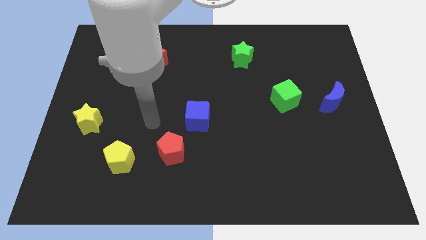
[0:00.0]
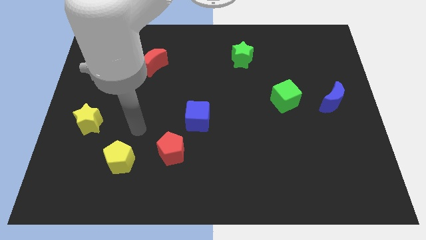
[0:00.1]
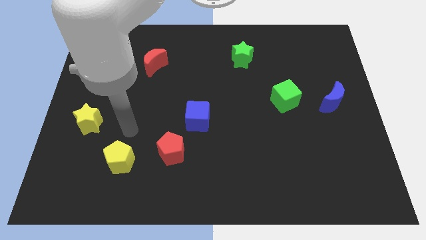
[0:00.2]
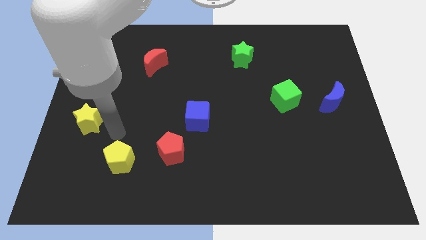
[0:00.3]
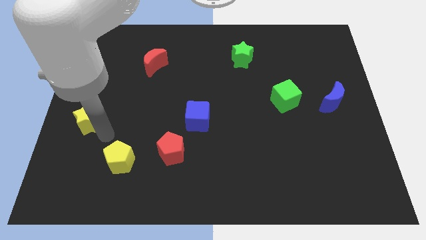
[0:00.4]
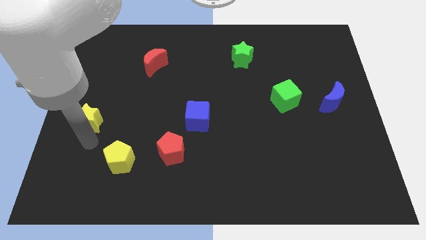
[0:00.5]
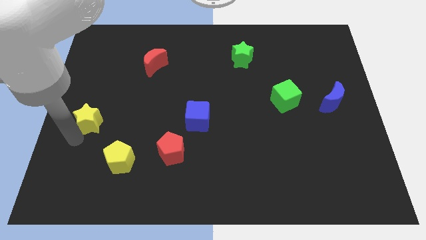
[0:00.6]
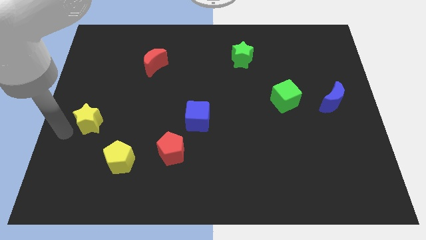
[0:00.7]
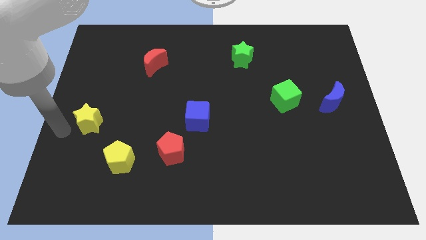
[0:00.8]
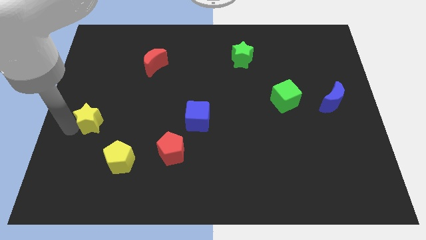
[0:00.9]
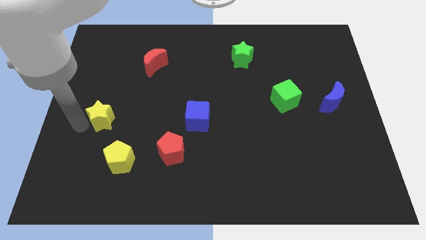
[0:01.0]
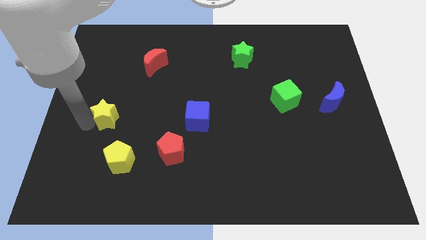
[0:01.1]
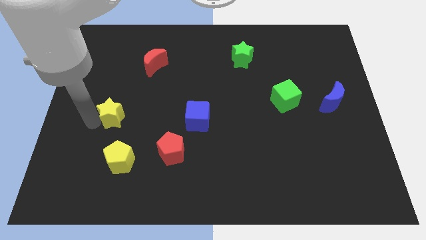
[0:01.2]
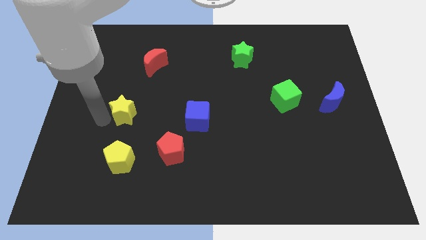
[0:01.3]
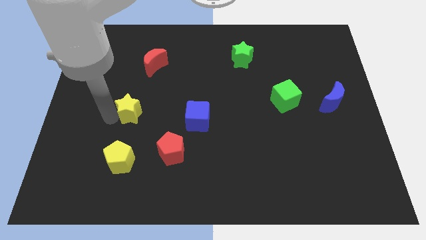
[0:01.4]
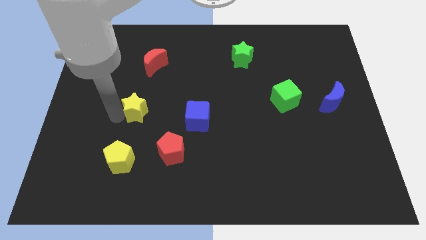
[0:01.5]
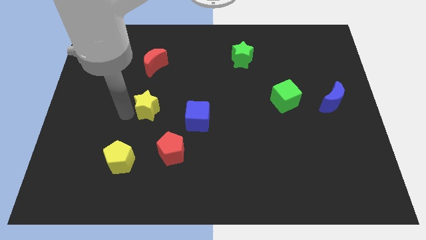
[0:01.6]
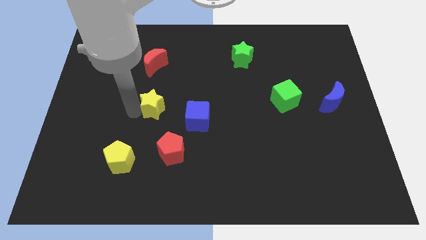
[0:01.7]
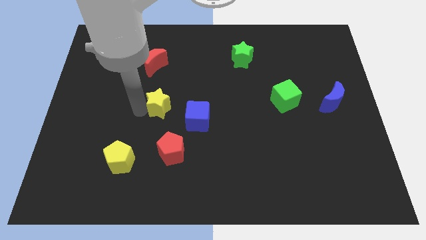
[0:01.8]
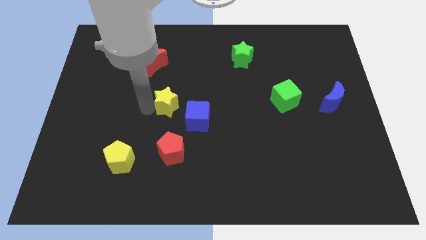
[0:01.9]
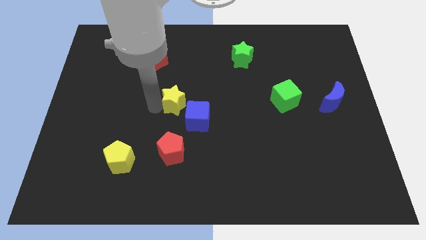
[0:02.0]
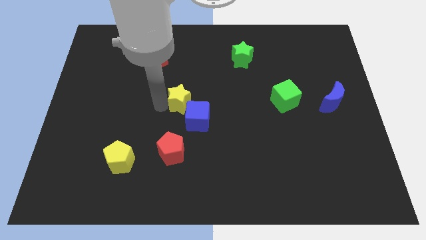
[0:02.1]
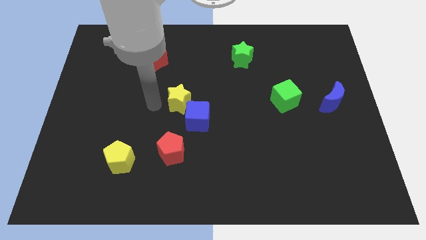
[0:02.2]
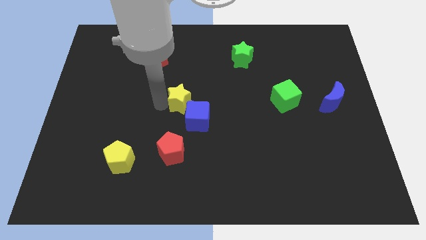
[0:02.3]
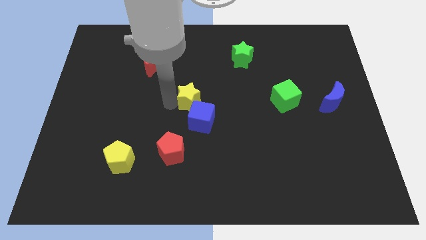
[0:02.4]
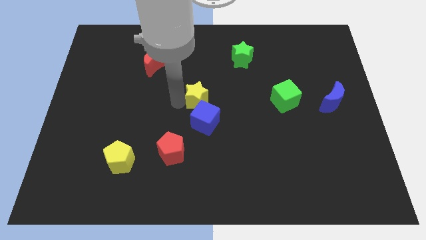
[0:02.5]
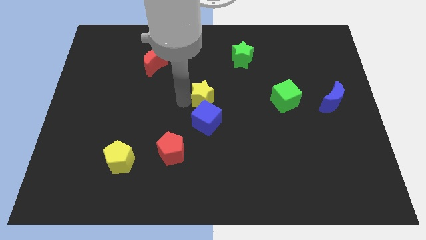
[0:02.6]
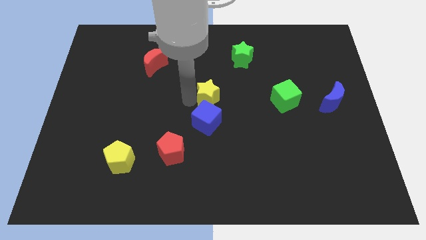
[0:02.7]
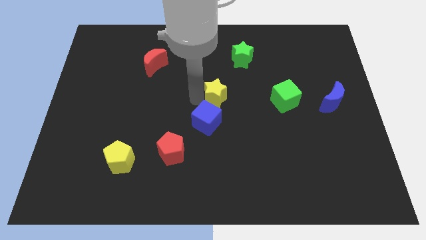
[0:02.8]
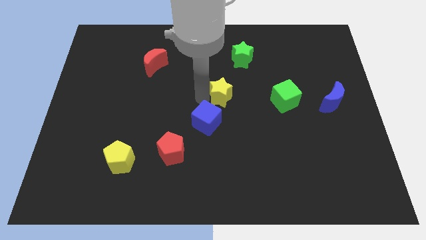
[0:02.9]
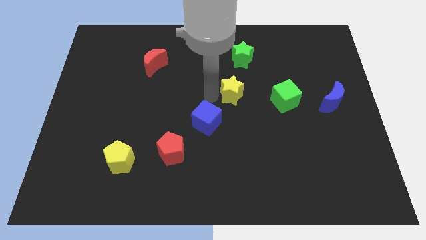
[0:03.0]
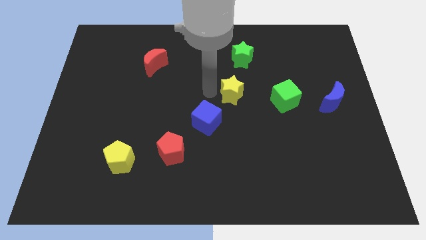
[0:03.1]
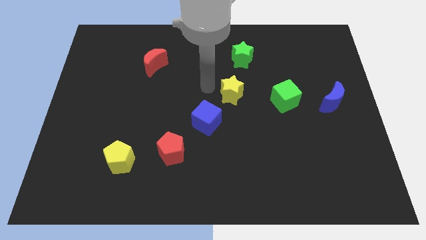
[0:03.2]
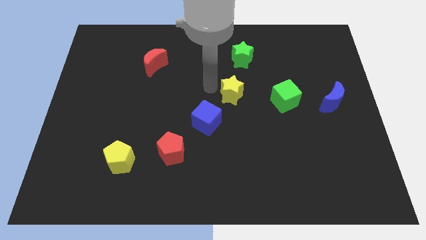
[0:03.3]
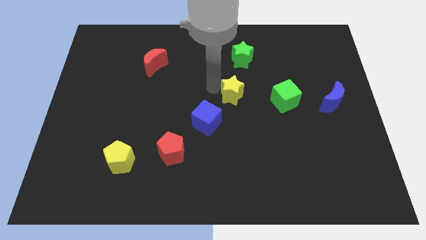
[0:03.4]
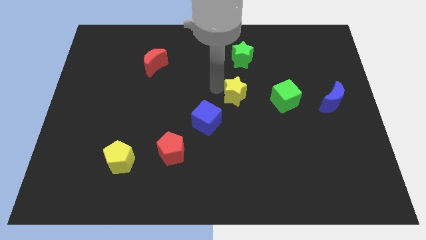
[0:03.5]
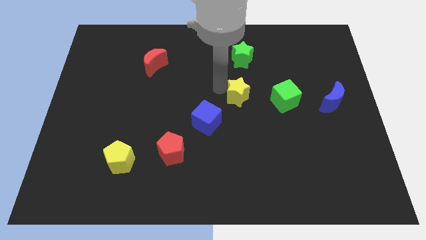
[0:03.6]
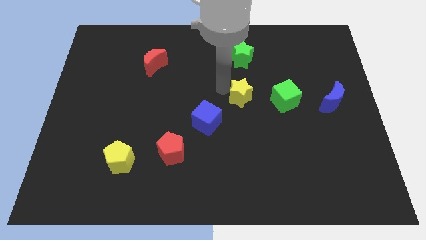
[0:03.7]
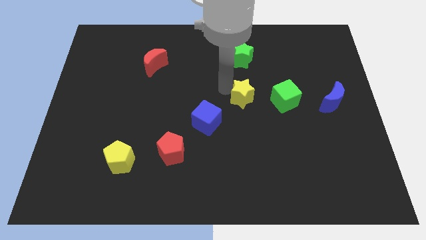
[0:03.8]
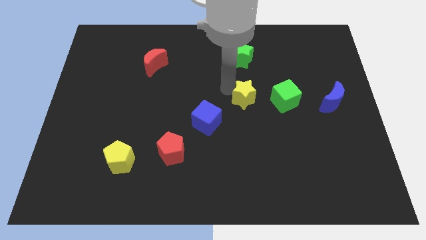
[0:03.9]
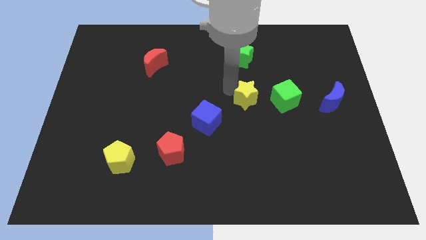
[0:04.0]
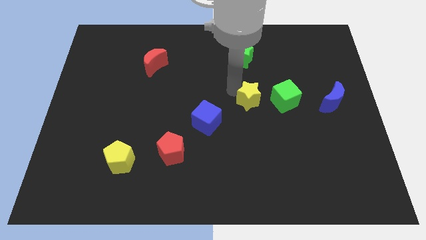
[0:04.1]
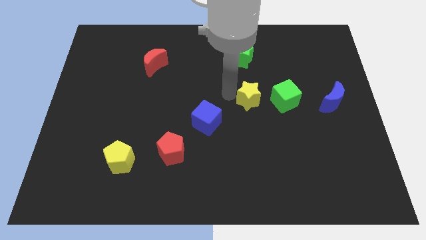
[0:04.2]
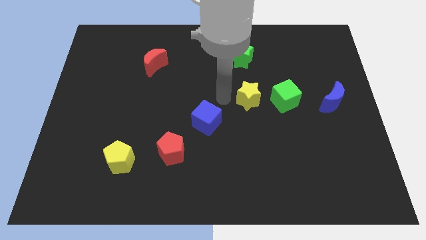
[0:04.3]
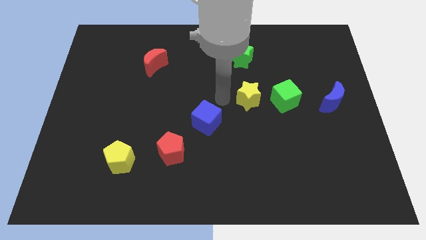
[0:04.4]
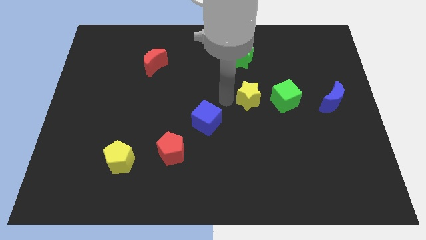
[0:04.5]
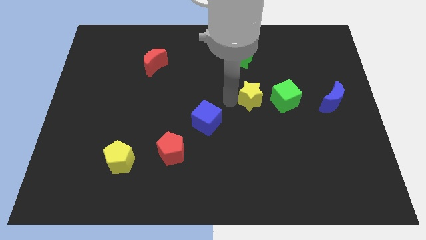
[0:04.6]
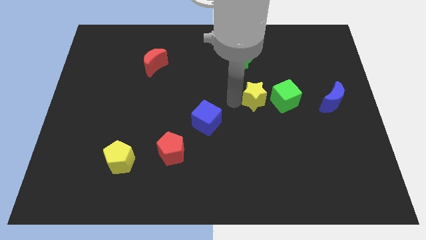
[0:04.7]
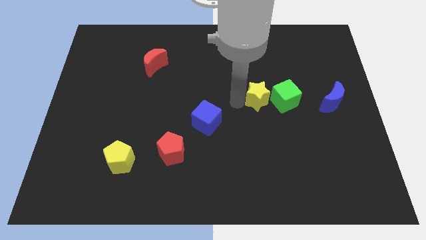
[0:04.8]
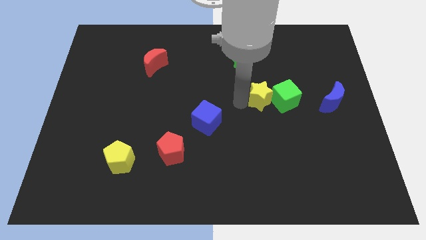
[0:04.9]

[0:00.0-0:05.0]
put the yellow star next to the green cube

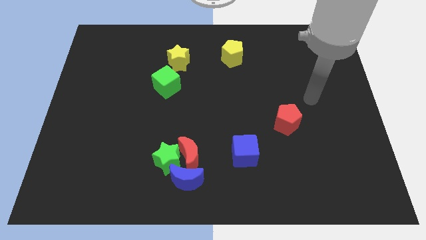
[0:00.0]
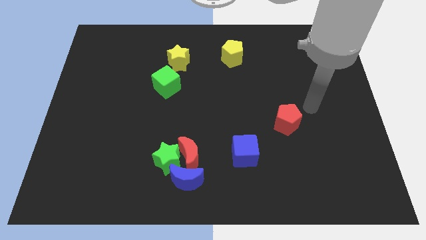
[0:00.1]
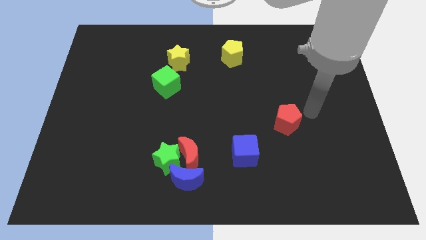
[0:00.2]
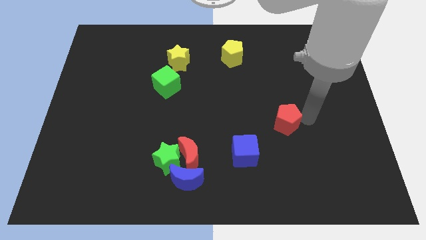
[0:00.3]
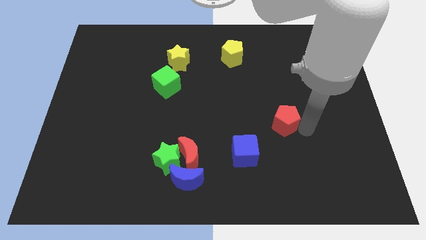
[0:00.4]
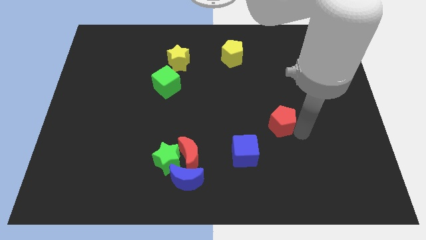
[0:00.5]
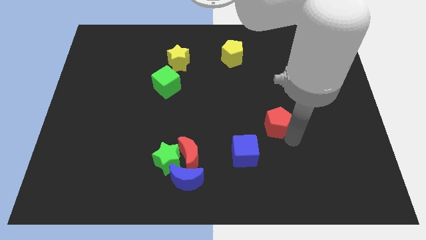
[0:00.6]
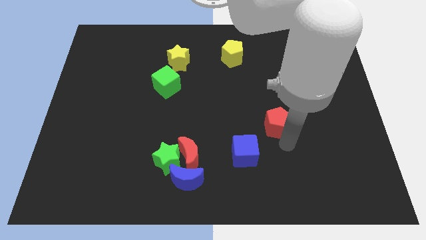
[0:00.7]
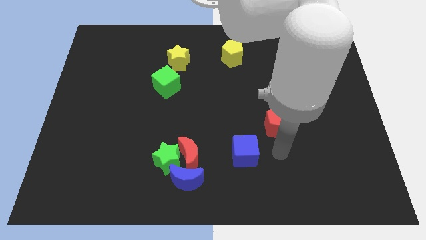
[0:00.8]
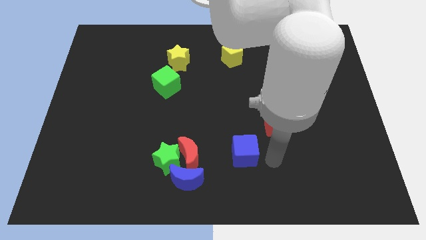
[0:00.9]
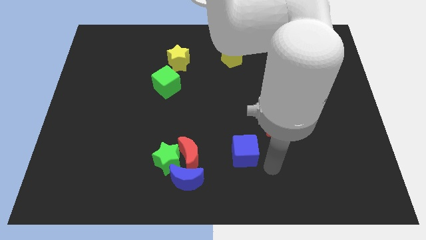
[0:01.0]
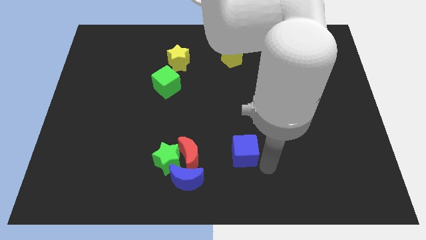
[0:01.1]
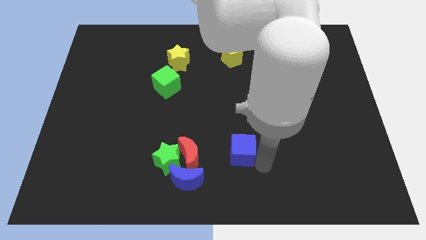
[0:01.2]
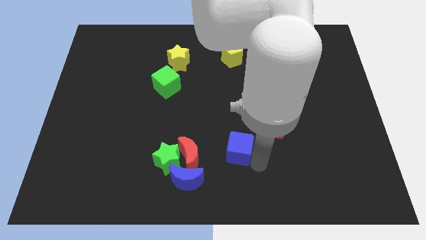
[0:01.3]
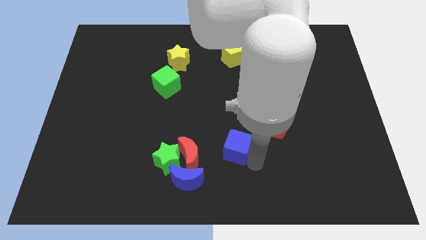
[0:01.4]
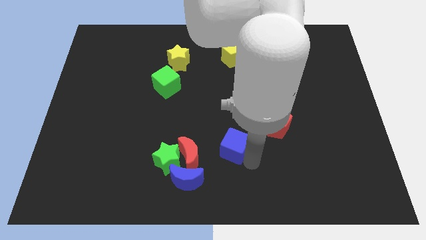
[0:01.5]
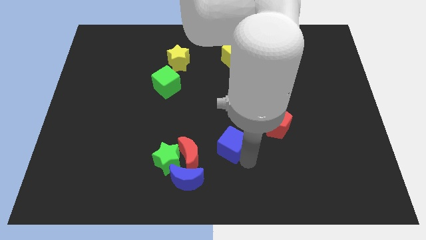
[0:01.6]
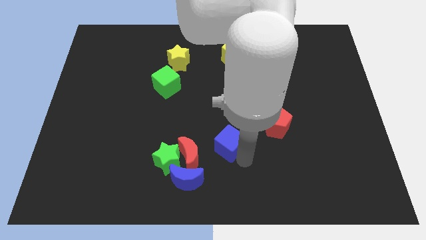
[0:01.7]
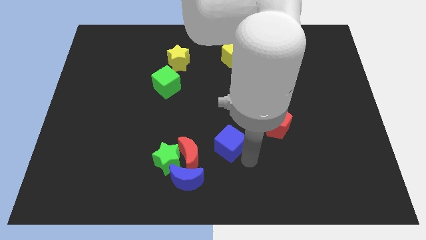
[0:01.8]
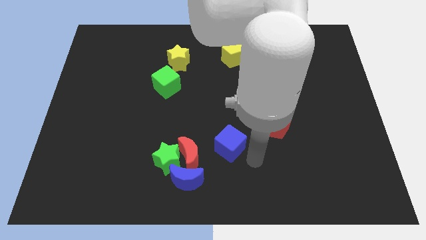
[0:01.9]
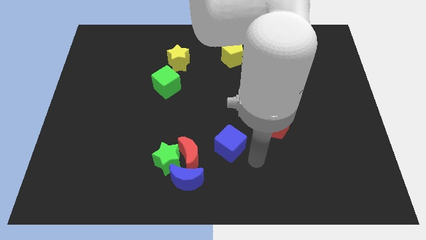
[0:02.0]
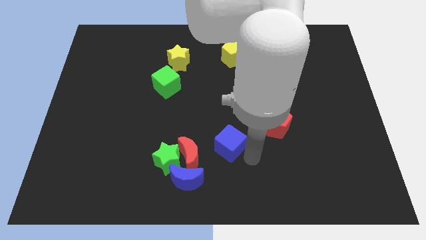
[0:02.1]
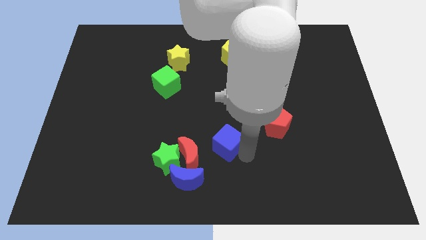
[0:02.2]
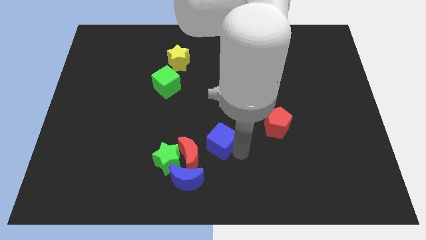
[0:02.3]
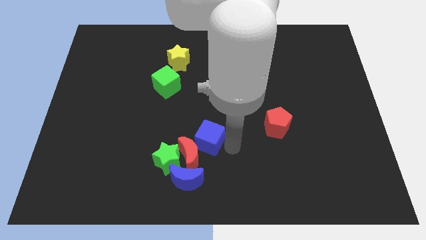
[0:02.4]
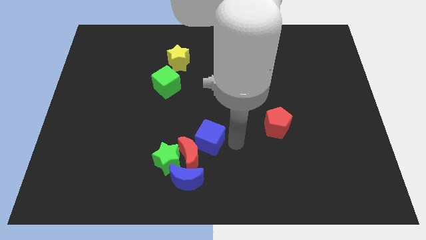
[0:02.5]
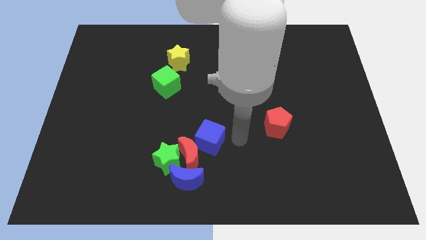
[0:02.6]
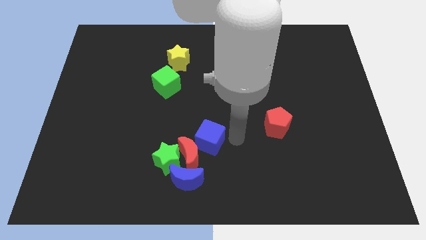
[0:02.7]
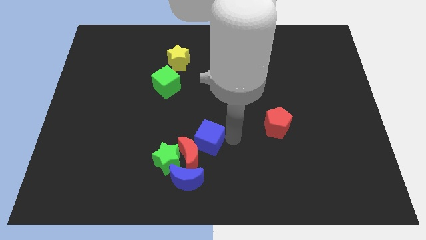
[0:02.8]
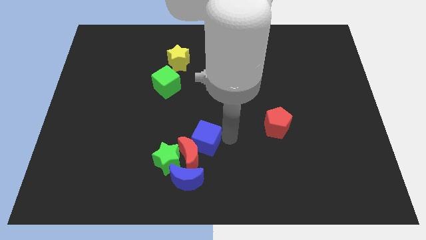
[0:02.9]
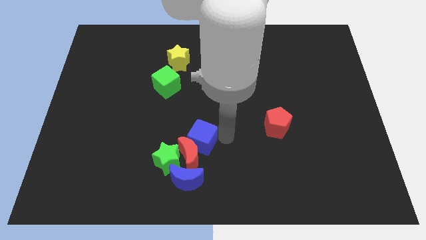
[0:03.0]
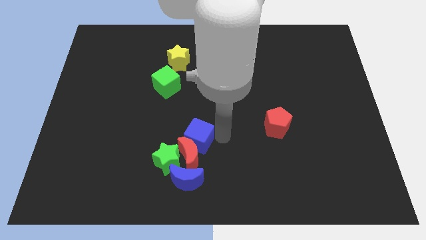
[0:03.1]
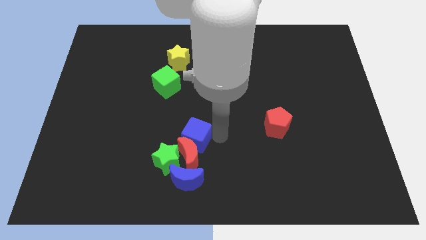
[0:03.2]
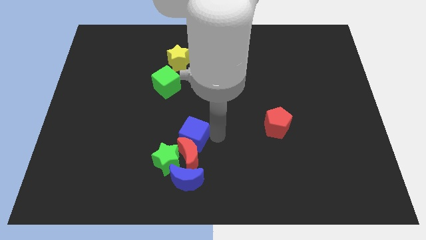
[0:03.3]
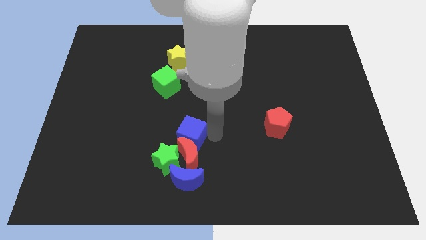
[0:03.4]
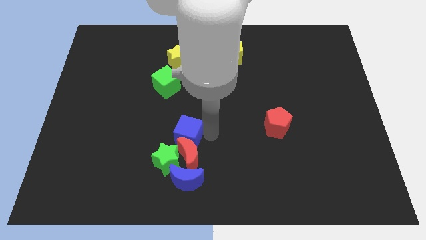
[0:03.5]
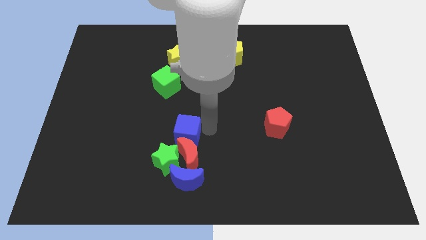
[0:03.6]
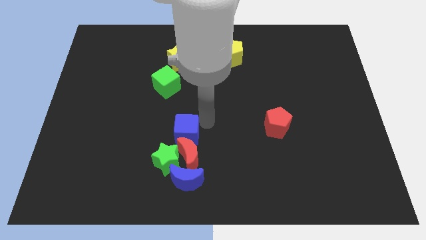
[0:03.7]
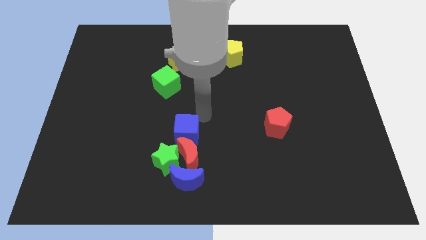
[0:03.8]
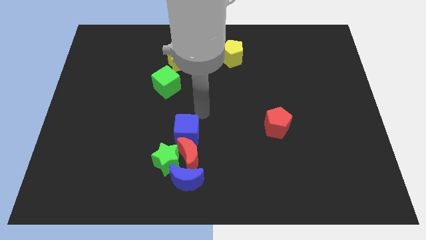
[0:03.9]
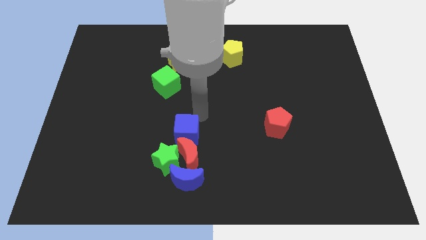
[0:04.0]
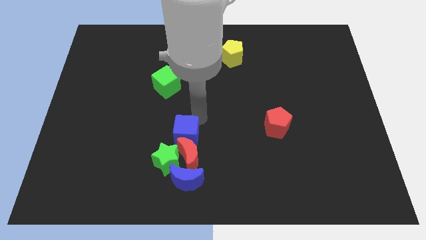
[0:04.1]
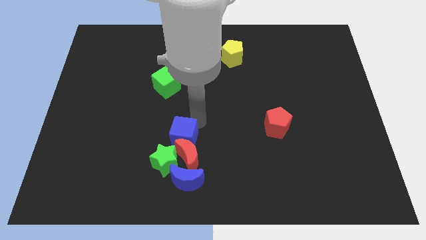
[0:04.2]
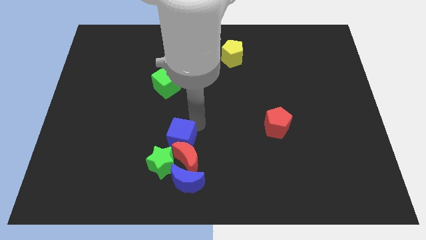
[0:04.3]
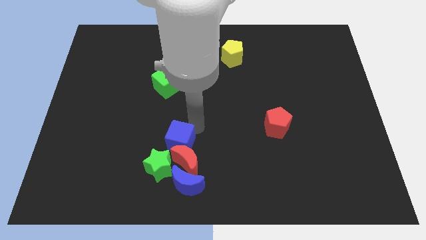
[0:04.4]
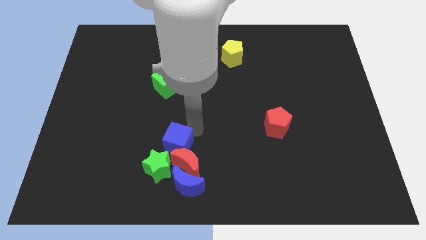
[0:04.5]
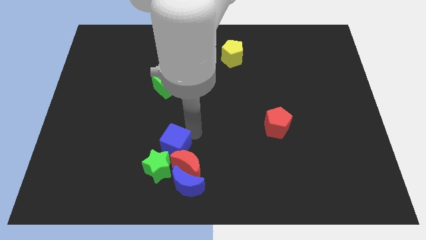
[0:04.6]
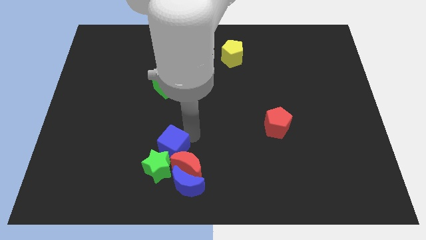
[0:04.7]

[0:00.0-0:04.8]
put the blue cube to the green star
